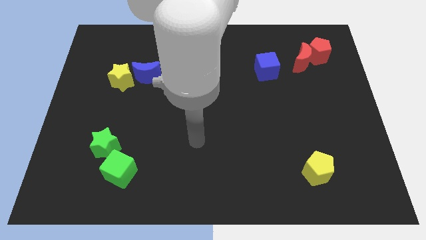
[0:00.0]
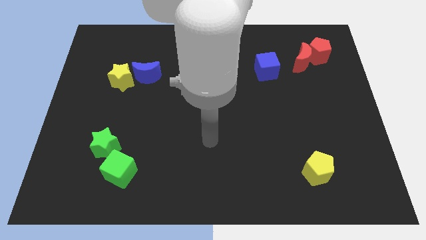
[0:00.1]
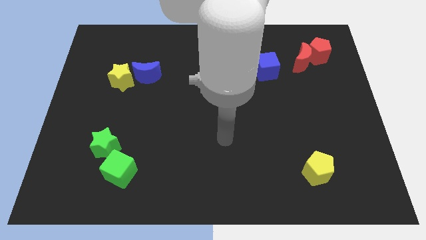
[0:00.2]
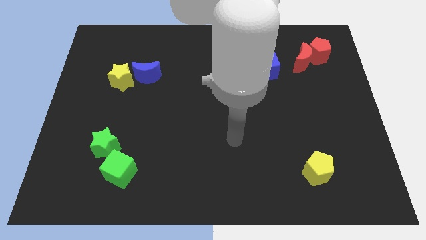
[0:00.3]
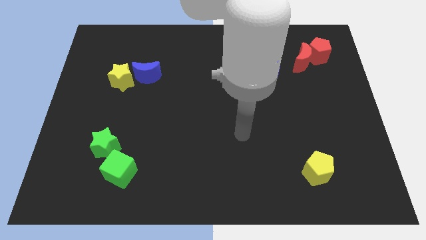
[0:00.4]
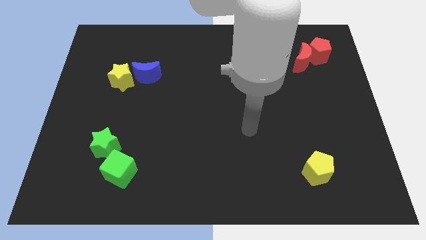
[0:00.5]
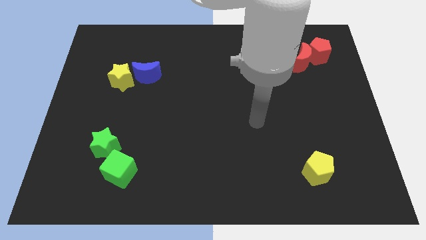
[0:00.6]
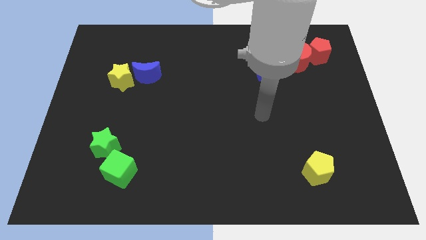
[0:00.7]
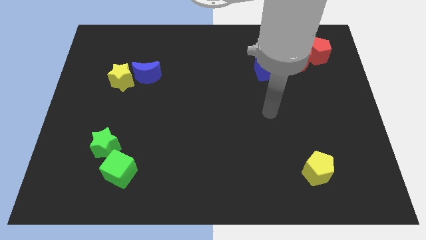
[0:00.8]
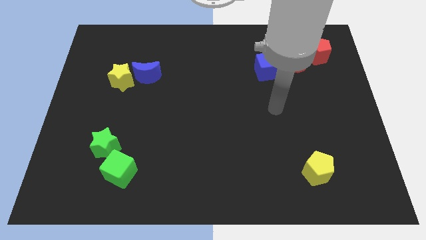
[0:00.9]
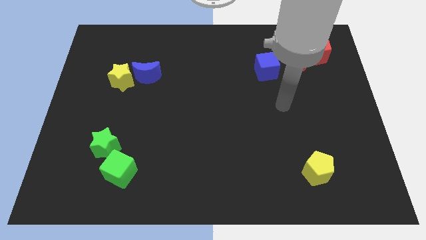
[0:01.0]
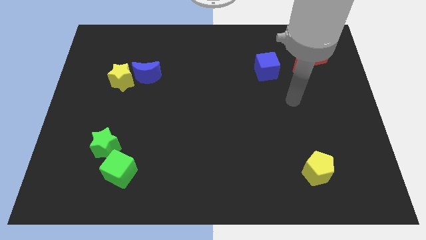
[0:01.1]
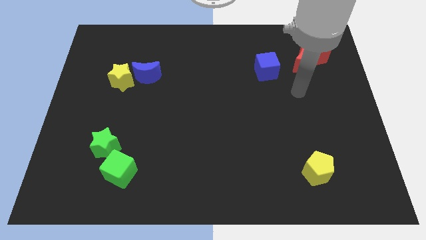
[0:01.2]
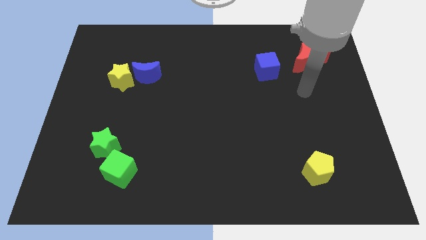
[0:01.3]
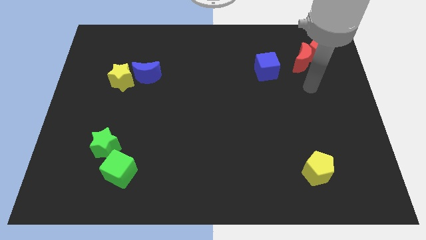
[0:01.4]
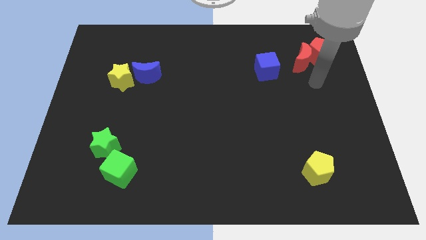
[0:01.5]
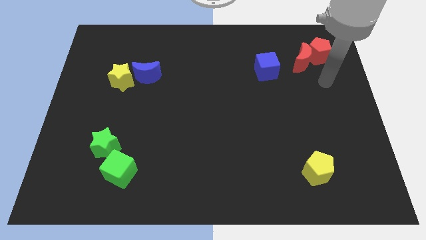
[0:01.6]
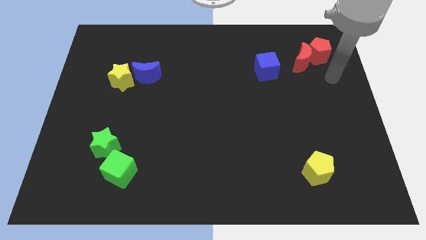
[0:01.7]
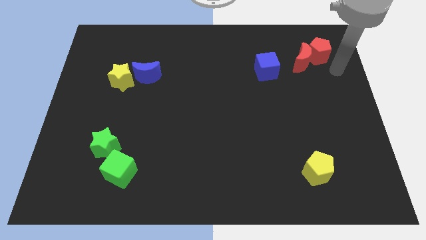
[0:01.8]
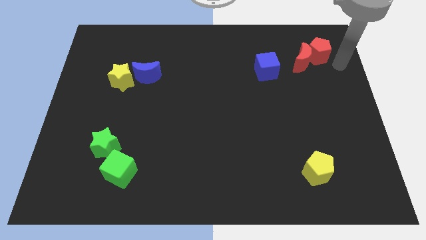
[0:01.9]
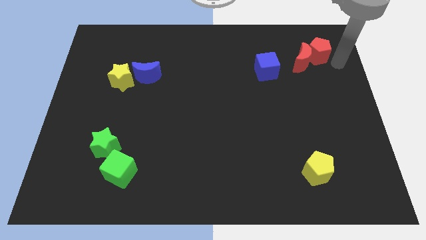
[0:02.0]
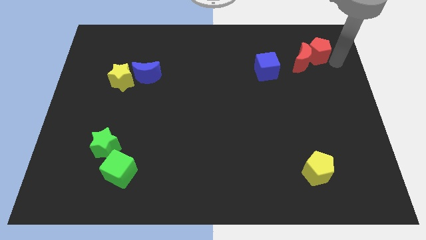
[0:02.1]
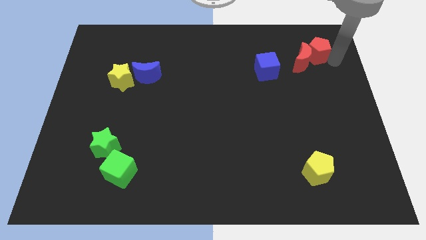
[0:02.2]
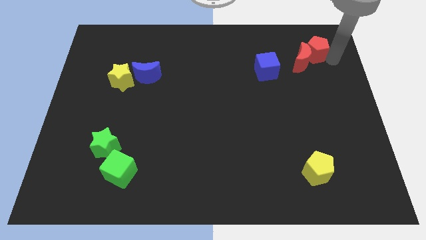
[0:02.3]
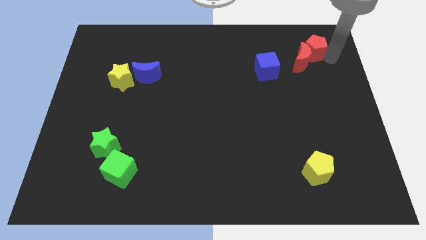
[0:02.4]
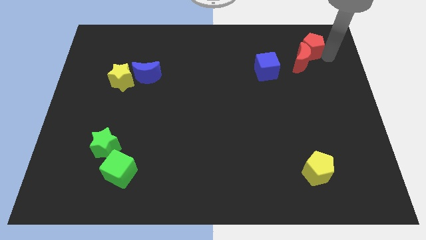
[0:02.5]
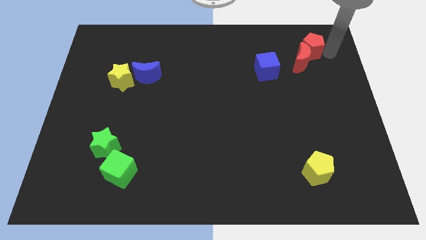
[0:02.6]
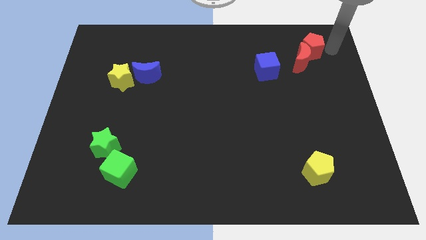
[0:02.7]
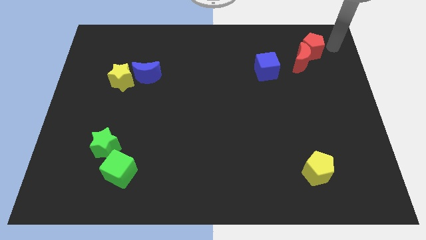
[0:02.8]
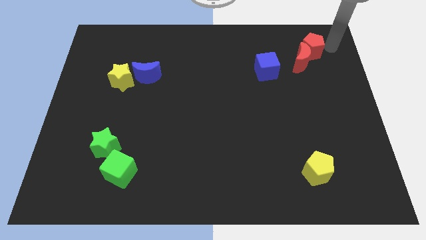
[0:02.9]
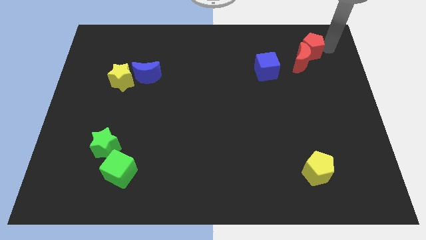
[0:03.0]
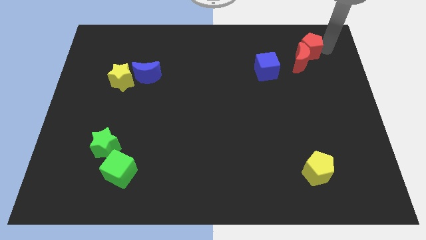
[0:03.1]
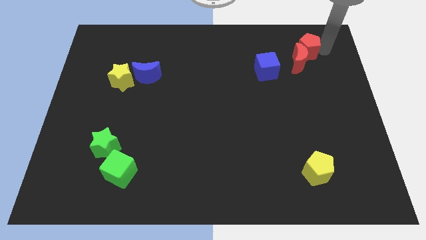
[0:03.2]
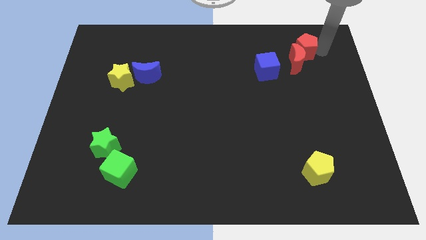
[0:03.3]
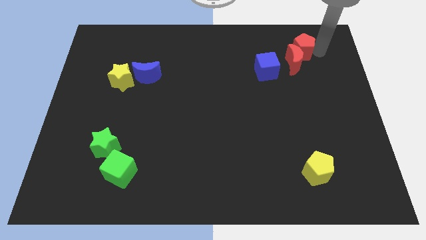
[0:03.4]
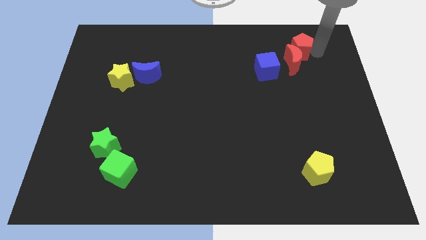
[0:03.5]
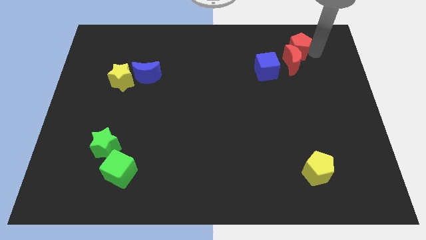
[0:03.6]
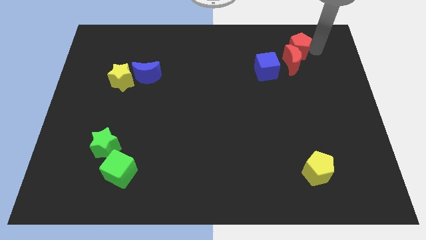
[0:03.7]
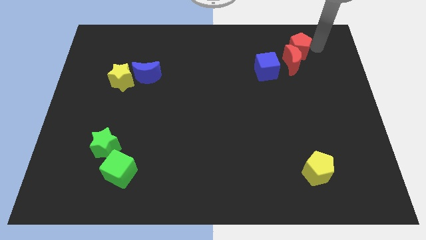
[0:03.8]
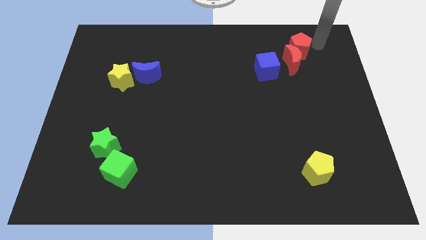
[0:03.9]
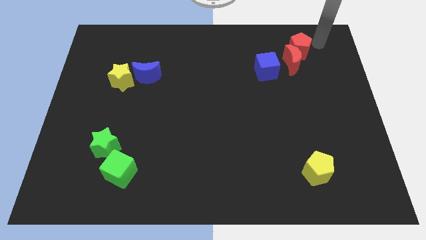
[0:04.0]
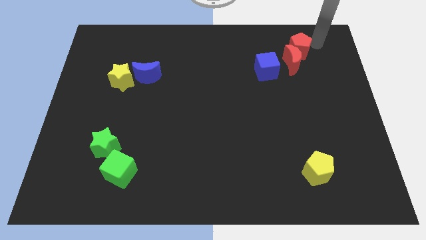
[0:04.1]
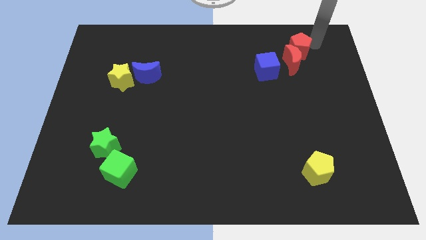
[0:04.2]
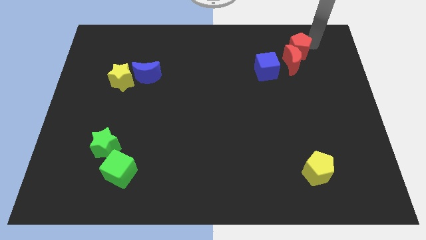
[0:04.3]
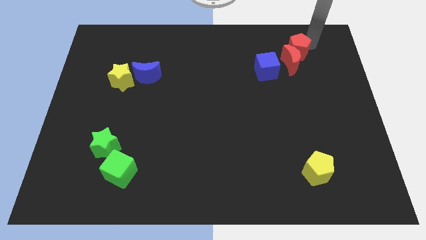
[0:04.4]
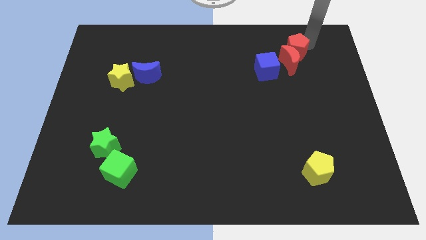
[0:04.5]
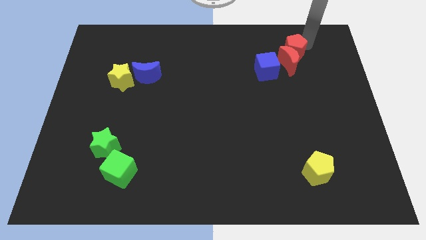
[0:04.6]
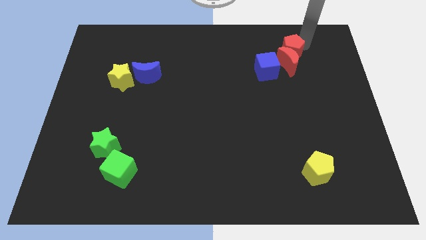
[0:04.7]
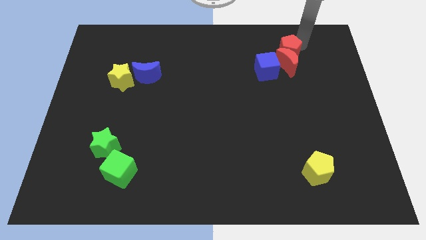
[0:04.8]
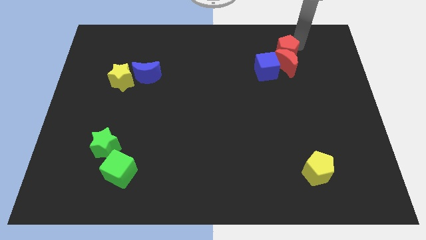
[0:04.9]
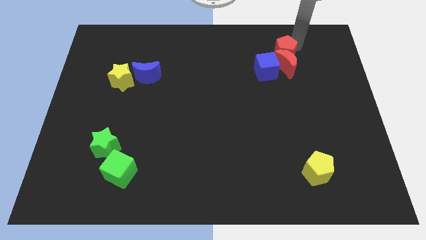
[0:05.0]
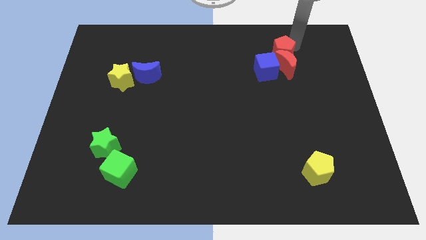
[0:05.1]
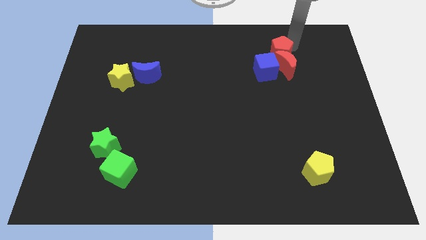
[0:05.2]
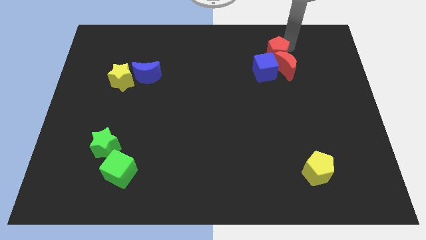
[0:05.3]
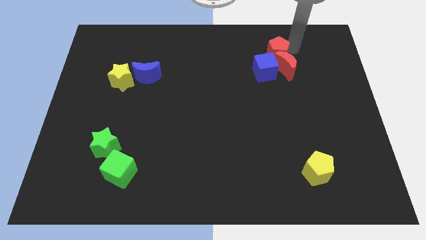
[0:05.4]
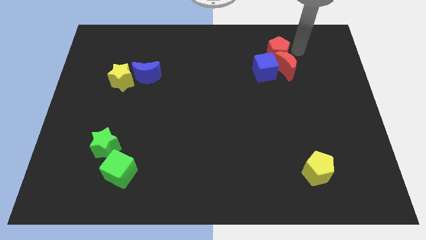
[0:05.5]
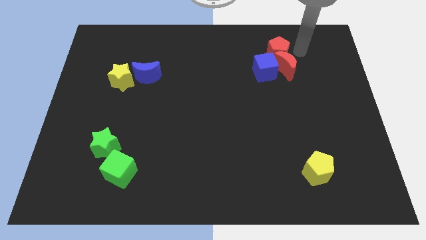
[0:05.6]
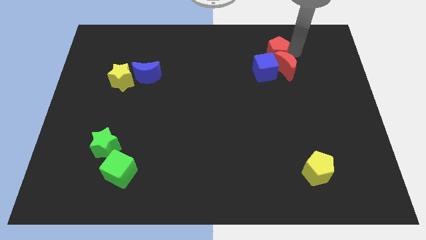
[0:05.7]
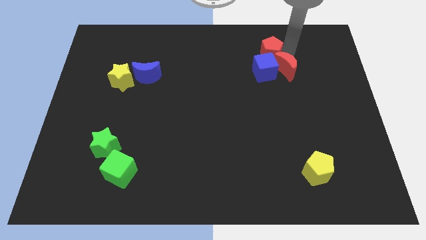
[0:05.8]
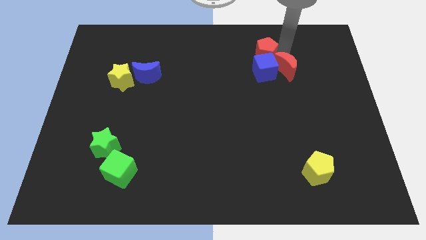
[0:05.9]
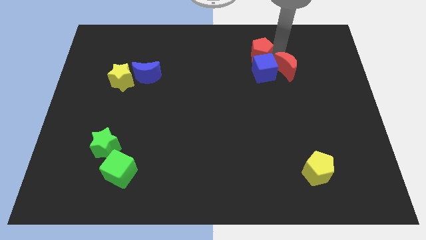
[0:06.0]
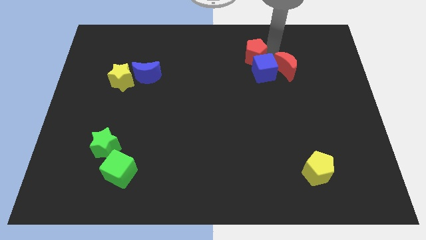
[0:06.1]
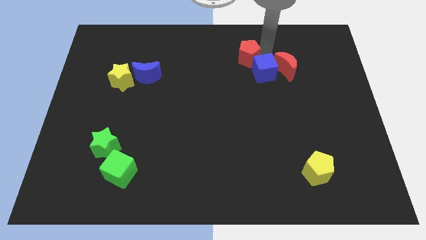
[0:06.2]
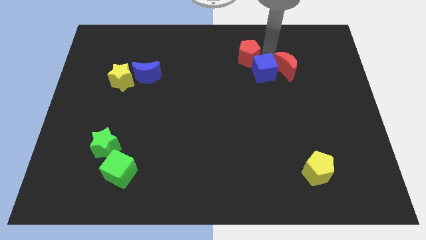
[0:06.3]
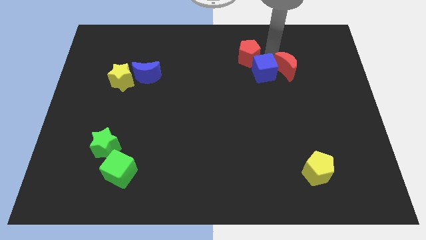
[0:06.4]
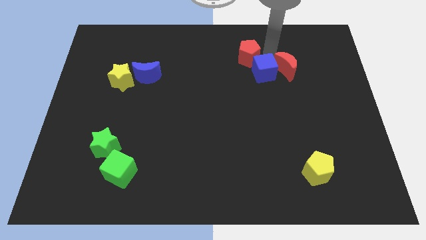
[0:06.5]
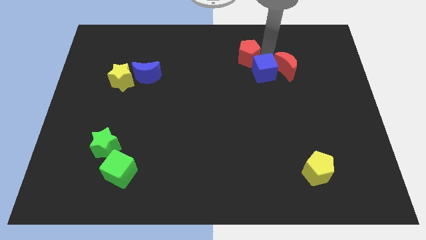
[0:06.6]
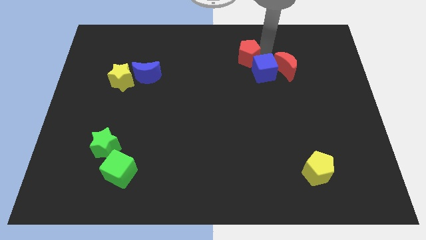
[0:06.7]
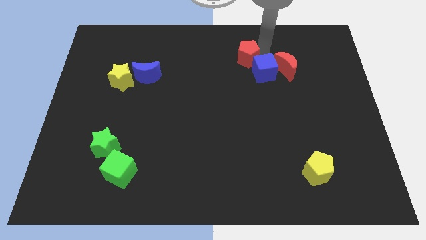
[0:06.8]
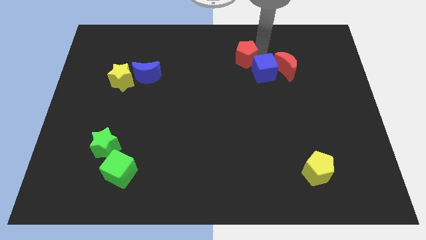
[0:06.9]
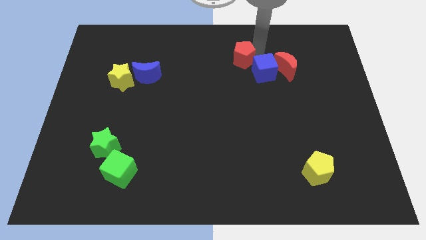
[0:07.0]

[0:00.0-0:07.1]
move the red pentagon to the left

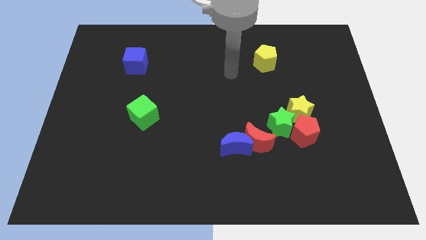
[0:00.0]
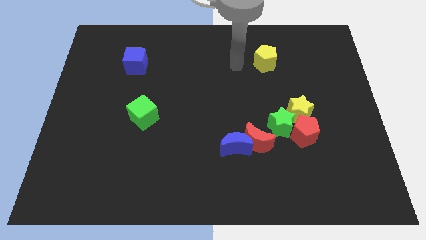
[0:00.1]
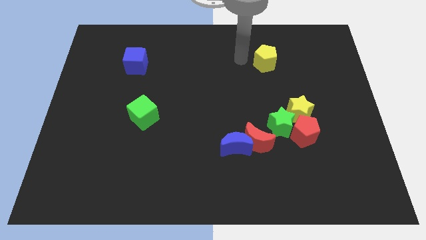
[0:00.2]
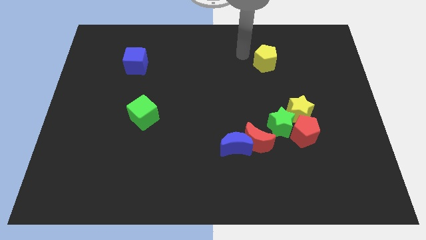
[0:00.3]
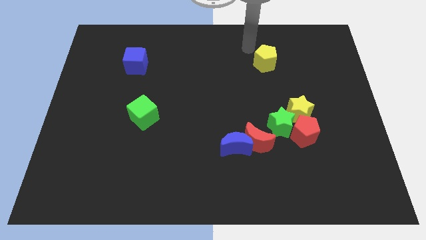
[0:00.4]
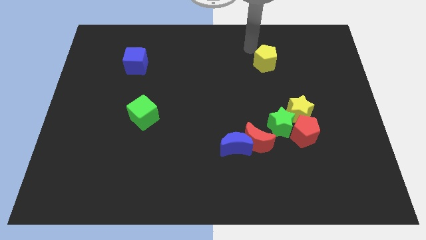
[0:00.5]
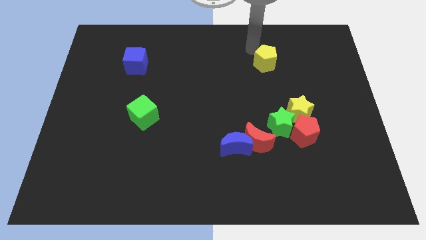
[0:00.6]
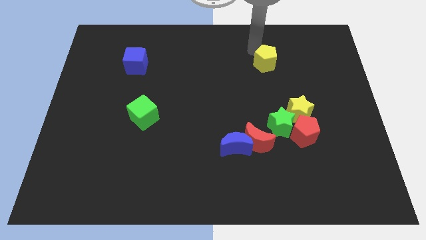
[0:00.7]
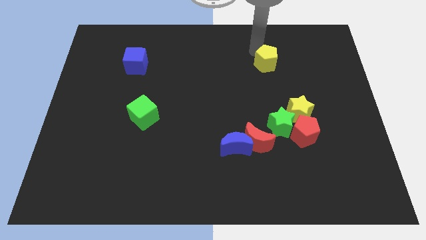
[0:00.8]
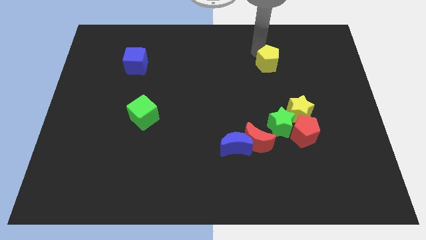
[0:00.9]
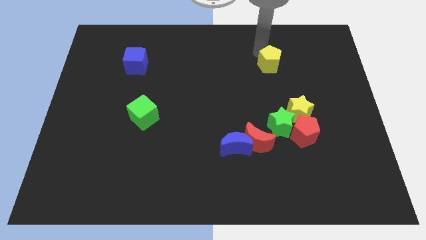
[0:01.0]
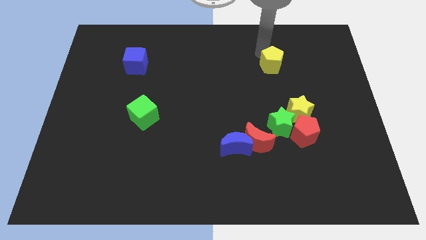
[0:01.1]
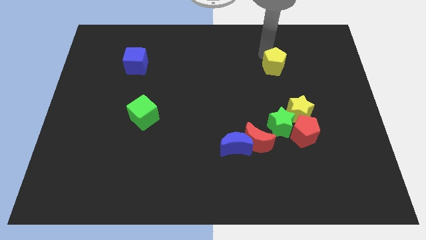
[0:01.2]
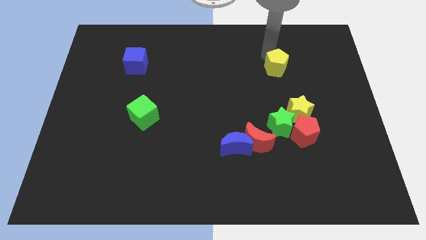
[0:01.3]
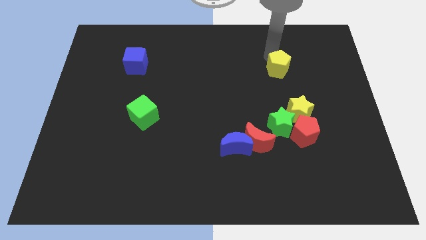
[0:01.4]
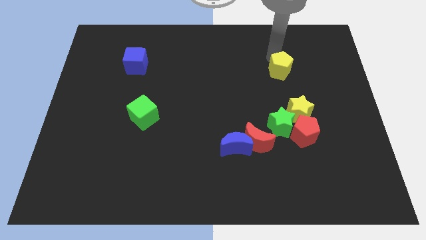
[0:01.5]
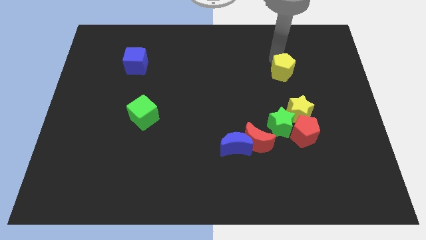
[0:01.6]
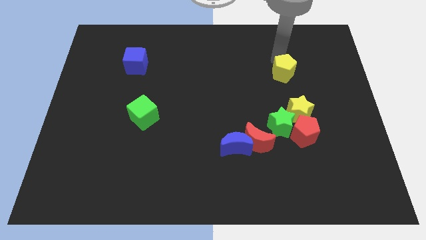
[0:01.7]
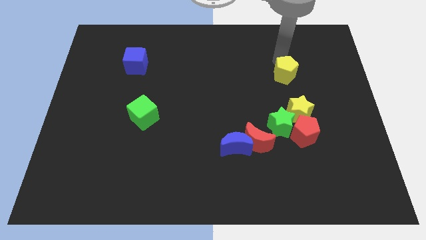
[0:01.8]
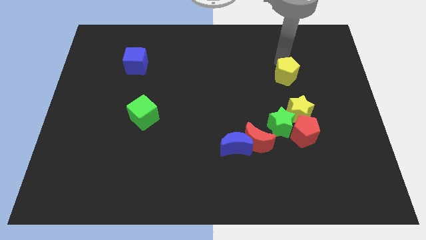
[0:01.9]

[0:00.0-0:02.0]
slide the yellow pentagon diagonally downwards and to the right a little bit
